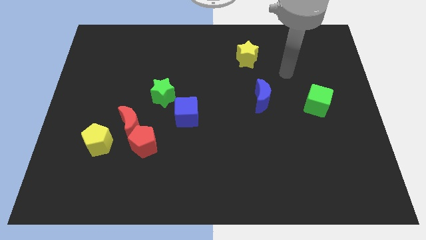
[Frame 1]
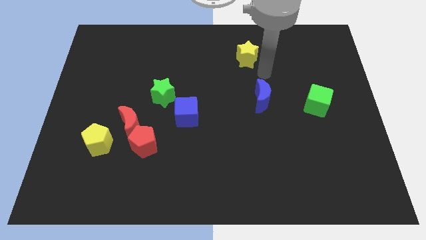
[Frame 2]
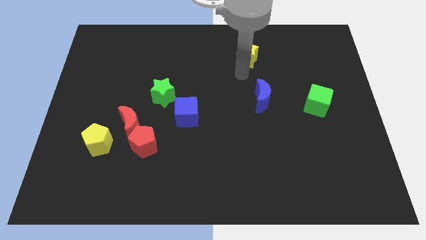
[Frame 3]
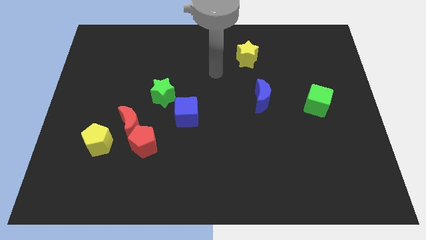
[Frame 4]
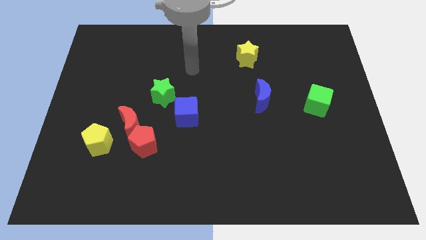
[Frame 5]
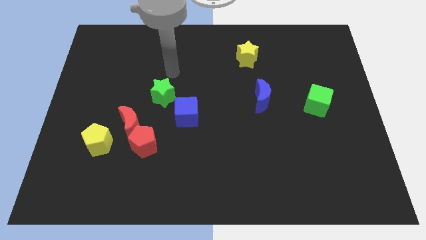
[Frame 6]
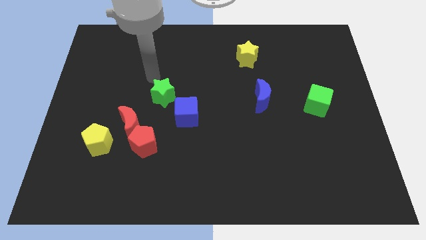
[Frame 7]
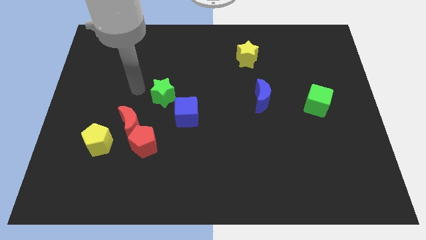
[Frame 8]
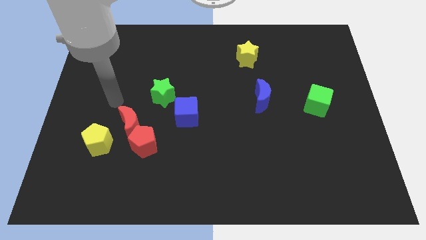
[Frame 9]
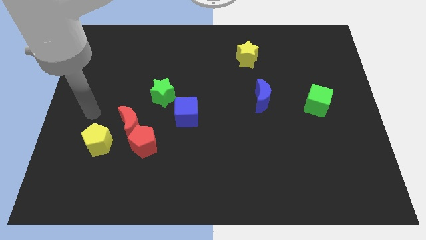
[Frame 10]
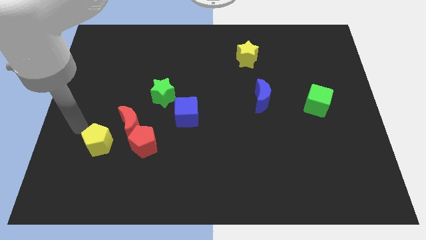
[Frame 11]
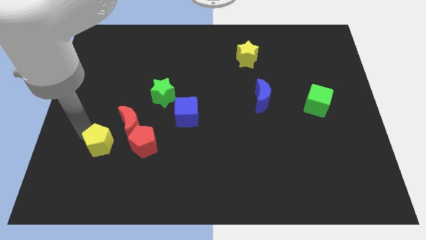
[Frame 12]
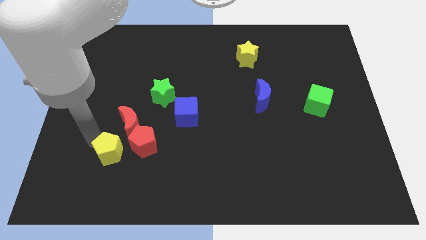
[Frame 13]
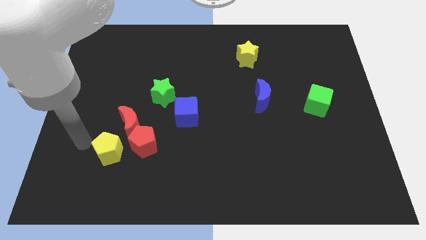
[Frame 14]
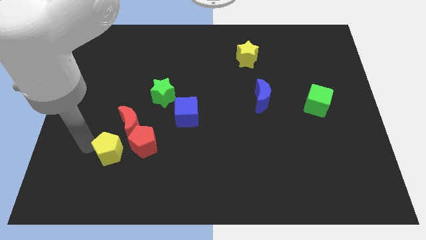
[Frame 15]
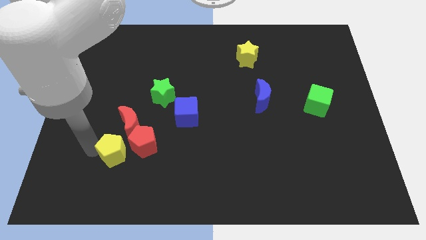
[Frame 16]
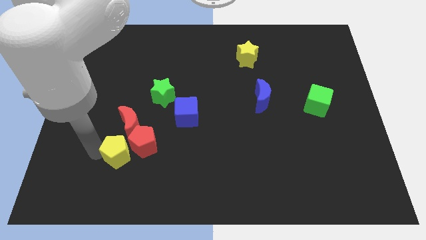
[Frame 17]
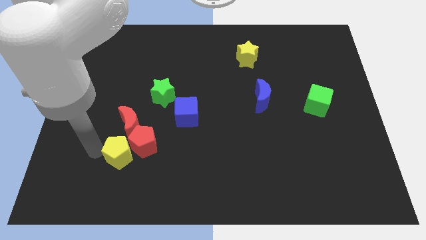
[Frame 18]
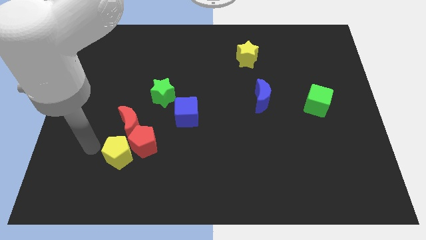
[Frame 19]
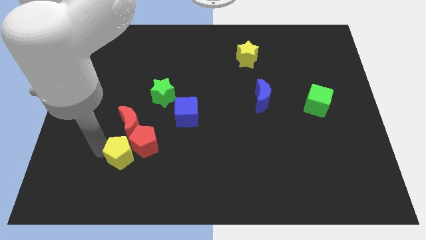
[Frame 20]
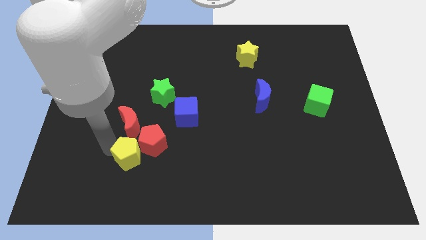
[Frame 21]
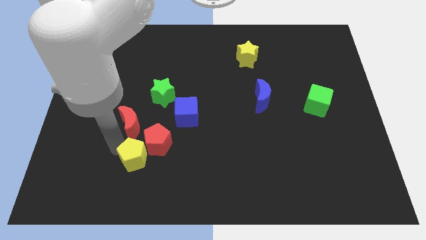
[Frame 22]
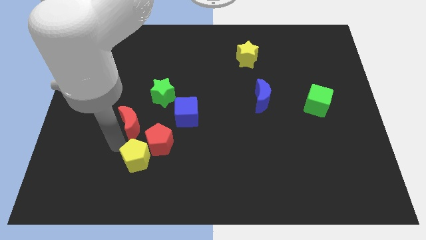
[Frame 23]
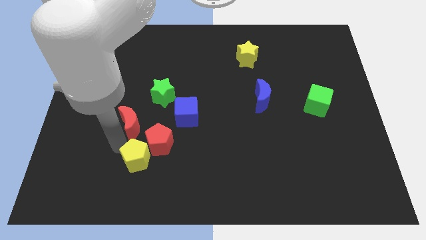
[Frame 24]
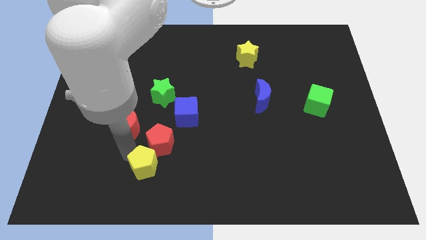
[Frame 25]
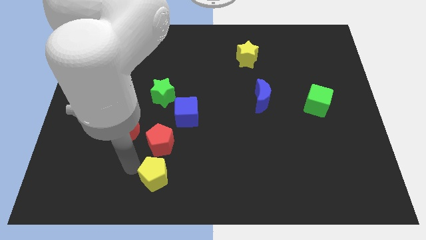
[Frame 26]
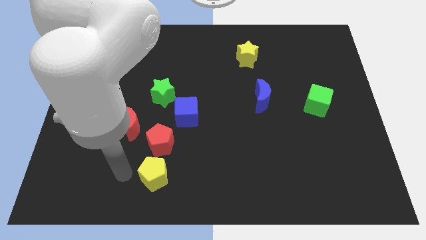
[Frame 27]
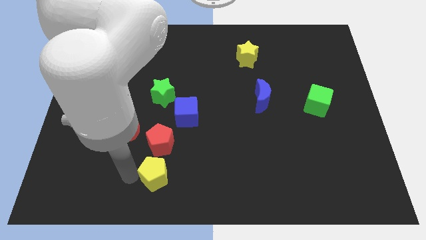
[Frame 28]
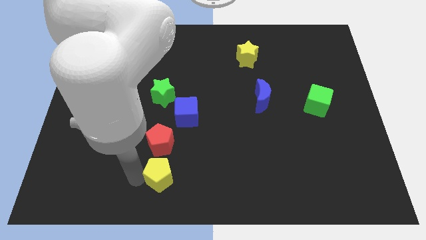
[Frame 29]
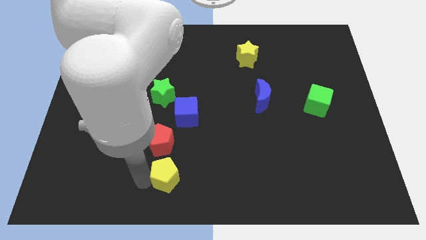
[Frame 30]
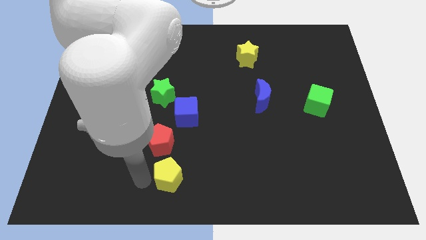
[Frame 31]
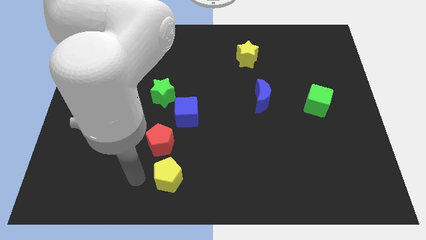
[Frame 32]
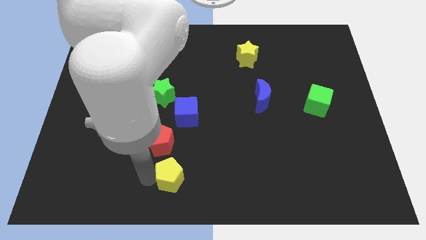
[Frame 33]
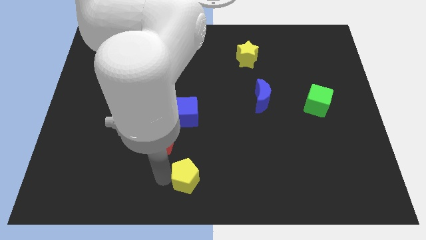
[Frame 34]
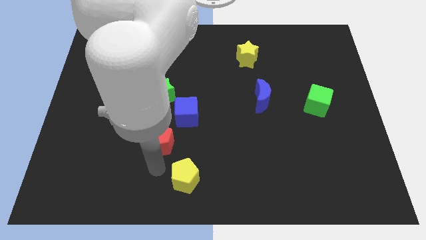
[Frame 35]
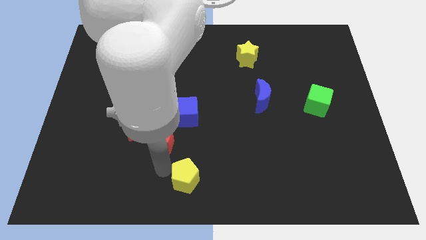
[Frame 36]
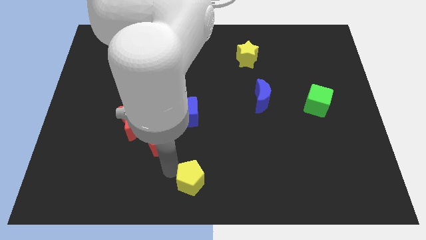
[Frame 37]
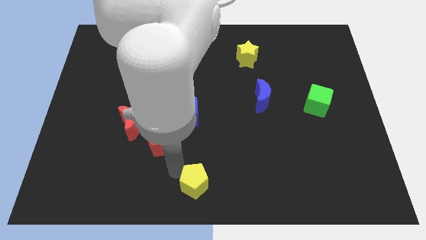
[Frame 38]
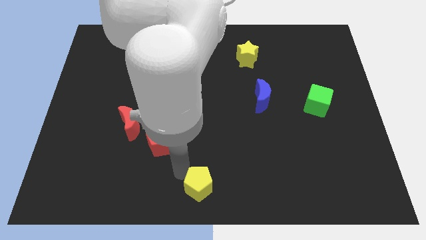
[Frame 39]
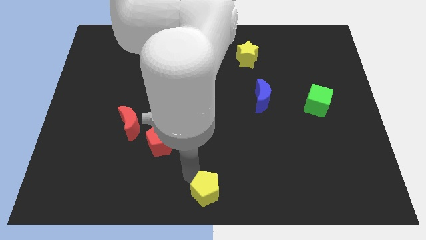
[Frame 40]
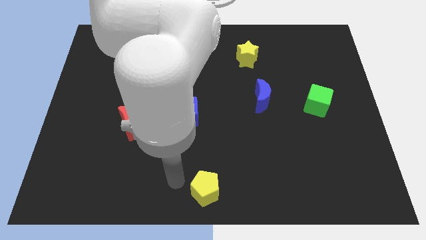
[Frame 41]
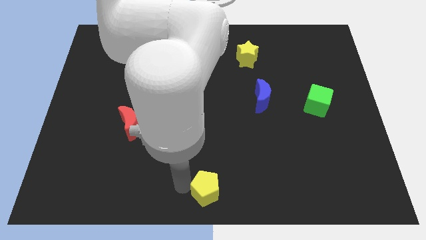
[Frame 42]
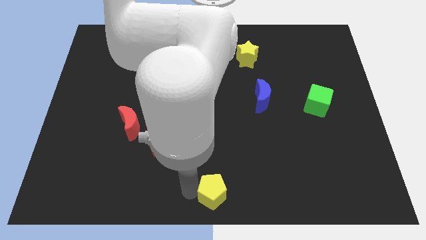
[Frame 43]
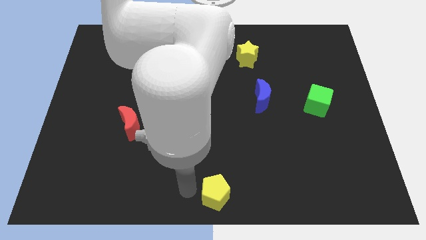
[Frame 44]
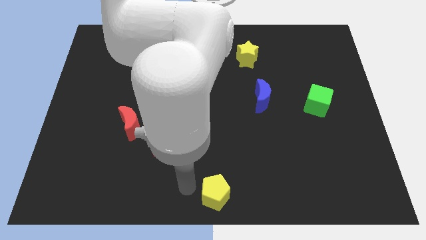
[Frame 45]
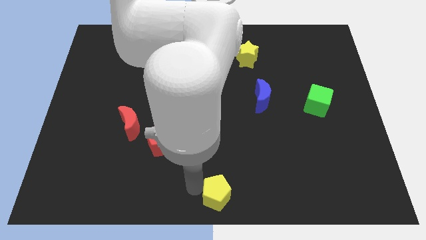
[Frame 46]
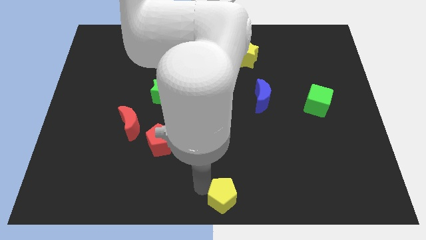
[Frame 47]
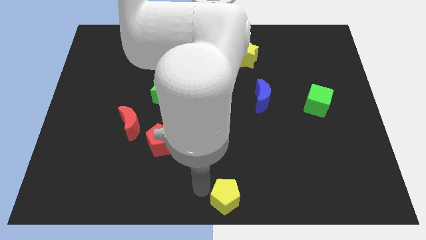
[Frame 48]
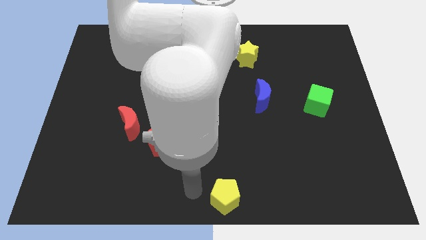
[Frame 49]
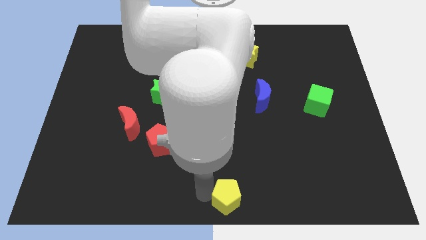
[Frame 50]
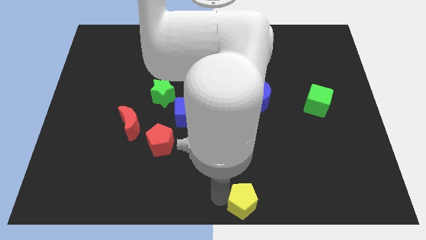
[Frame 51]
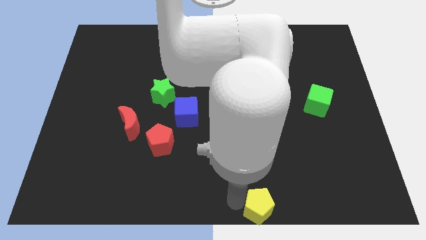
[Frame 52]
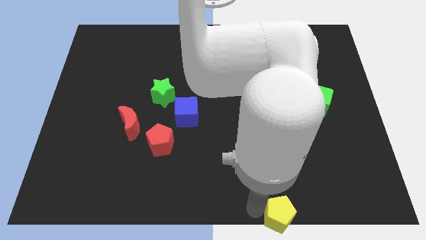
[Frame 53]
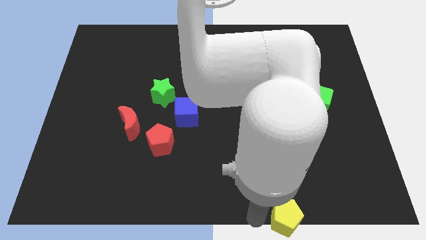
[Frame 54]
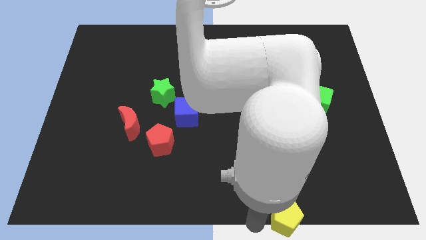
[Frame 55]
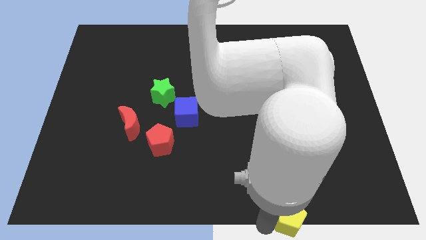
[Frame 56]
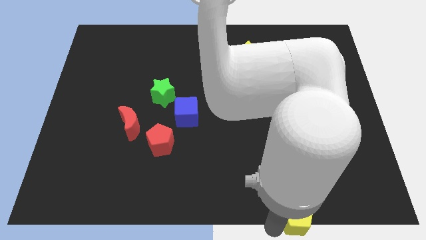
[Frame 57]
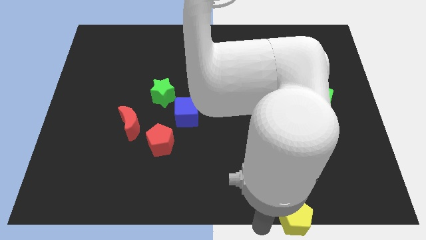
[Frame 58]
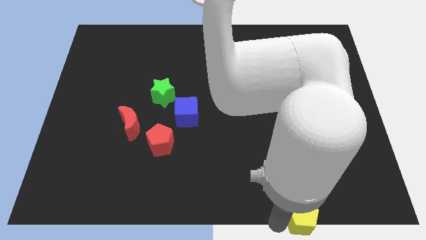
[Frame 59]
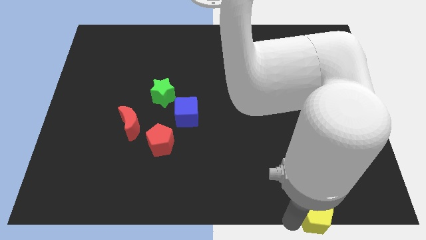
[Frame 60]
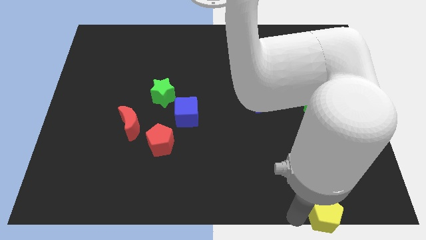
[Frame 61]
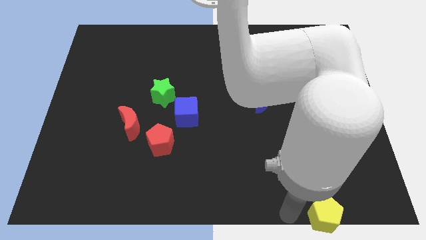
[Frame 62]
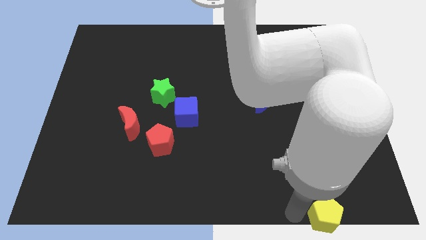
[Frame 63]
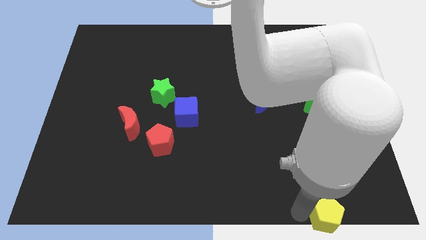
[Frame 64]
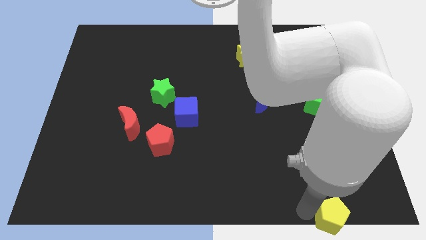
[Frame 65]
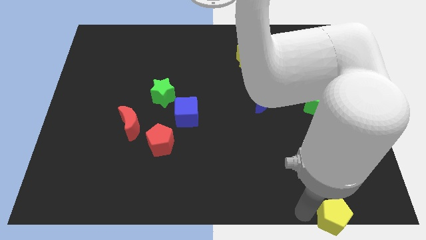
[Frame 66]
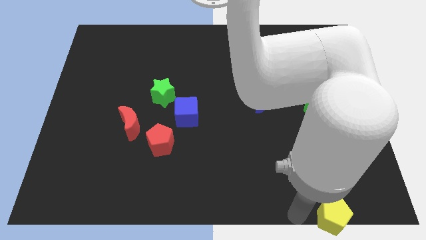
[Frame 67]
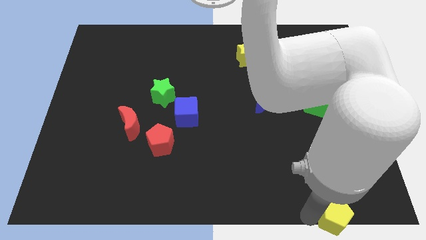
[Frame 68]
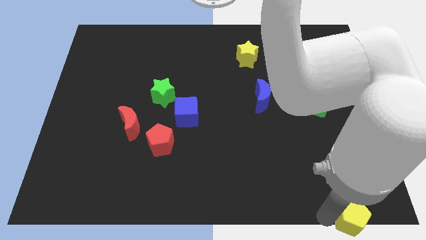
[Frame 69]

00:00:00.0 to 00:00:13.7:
push the yellow pentagon to the bottom right of the board

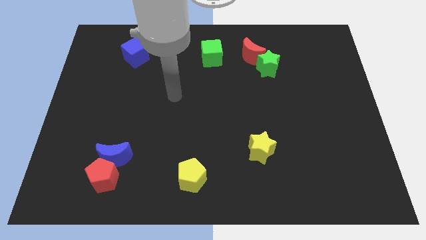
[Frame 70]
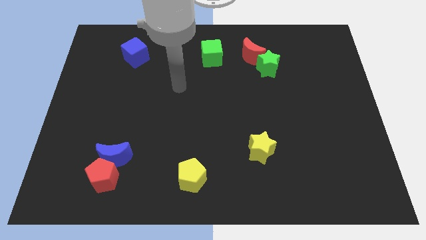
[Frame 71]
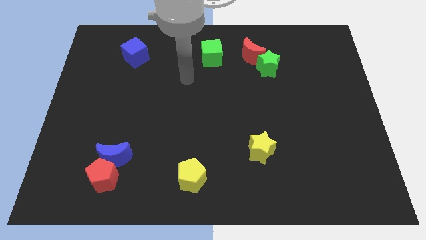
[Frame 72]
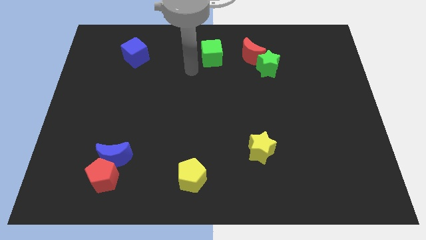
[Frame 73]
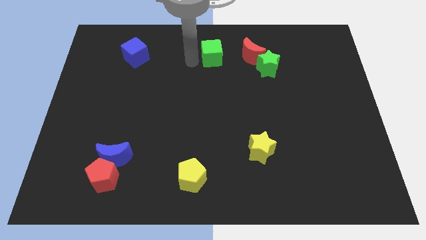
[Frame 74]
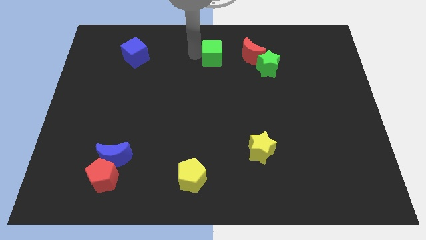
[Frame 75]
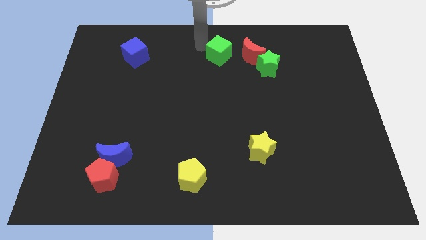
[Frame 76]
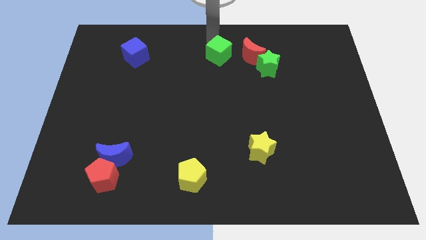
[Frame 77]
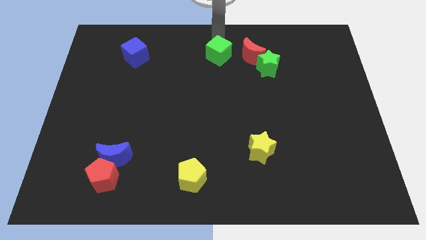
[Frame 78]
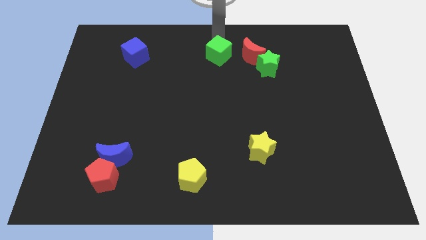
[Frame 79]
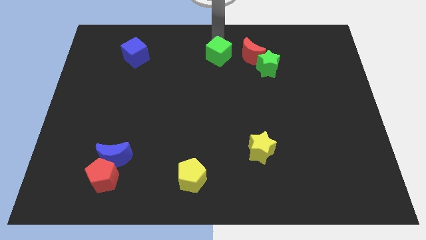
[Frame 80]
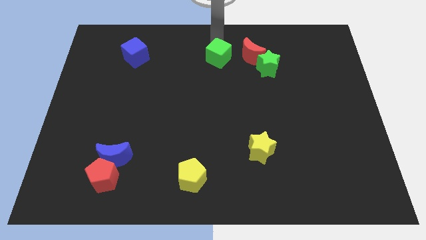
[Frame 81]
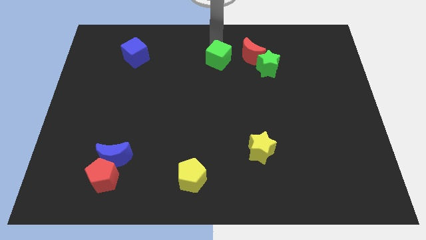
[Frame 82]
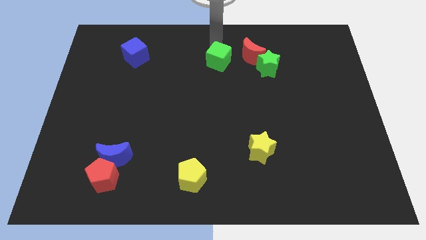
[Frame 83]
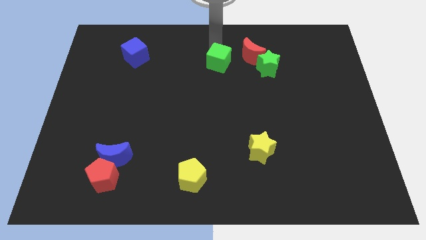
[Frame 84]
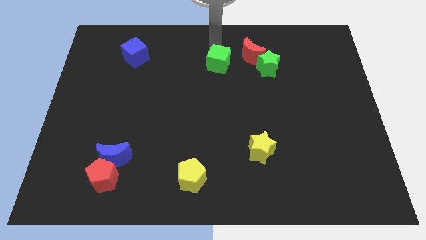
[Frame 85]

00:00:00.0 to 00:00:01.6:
move the green cube to the center
